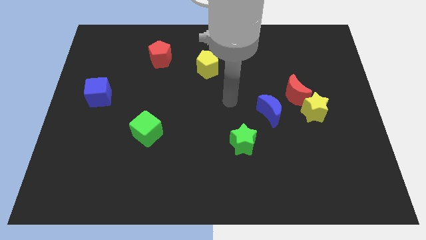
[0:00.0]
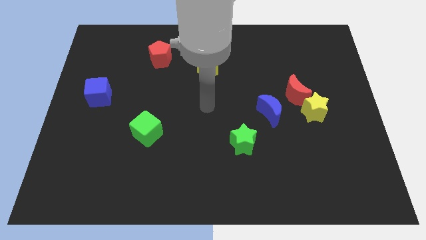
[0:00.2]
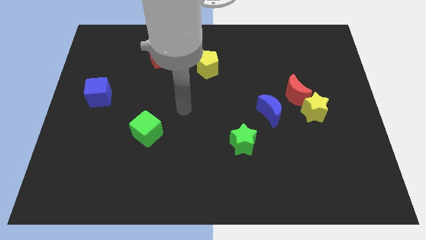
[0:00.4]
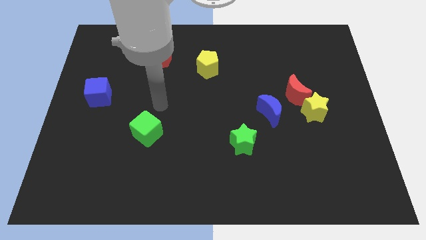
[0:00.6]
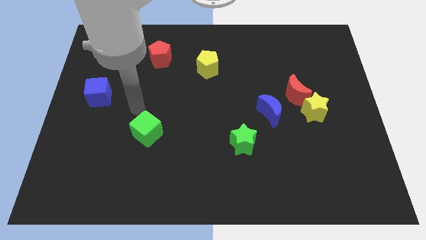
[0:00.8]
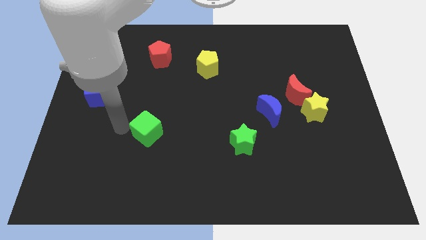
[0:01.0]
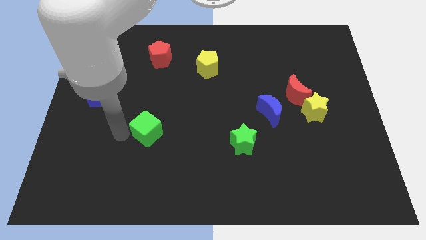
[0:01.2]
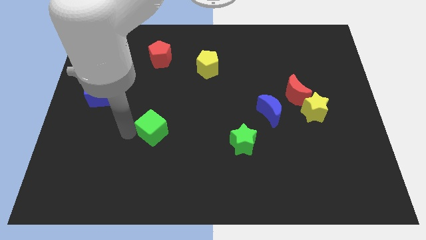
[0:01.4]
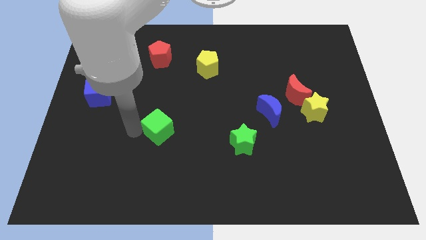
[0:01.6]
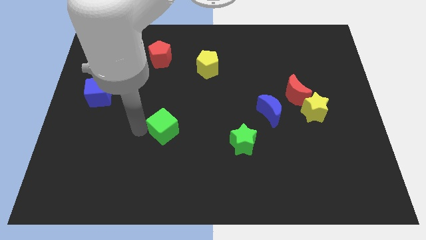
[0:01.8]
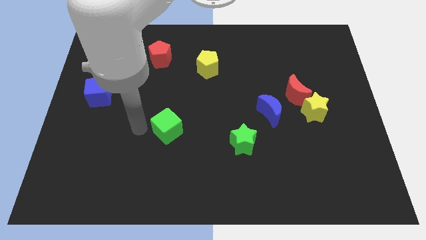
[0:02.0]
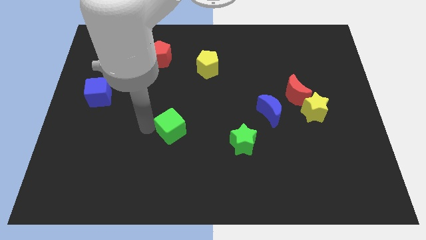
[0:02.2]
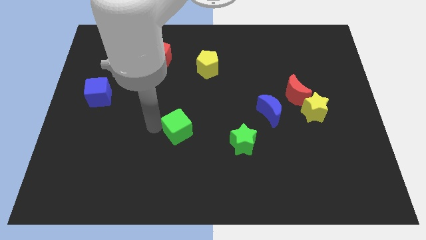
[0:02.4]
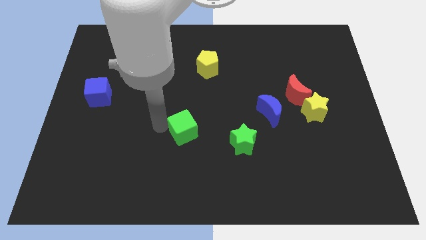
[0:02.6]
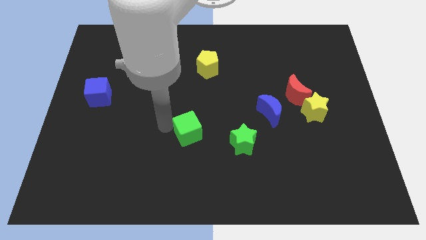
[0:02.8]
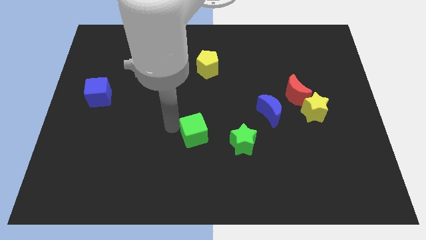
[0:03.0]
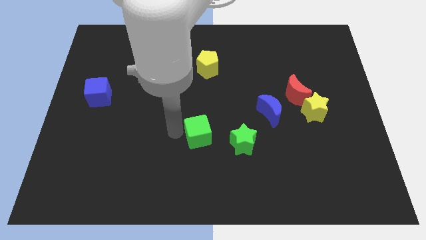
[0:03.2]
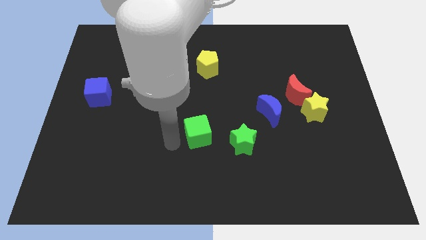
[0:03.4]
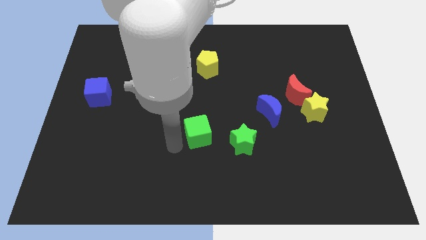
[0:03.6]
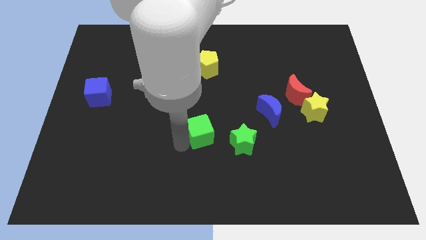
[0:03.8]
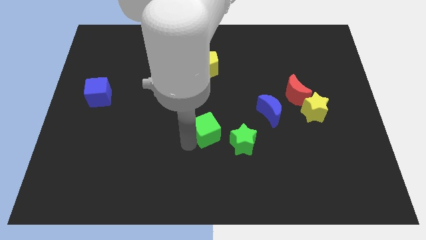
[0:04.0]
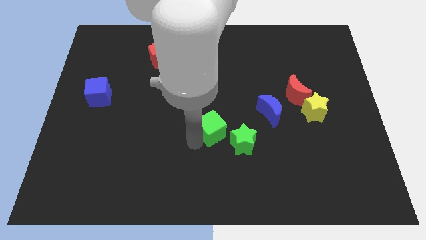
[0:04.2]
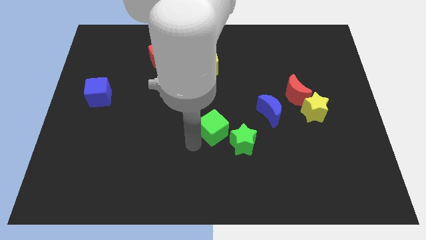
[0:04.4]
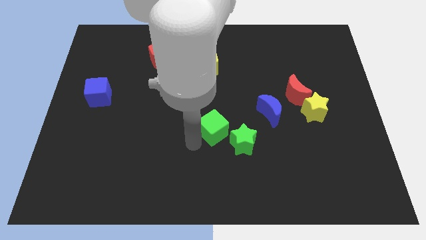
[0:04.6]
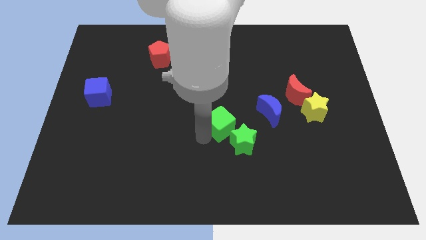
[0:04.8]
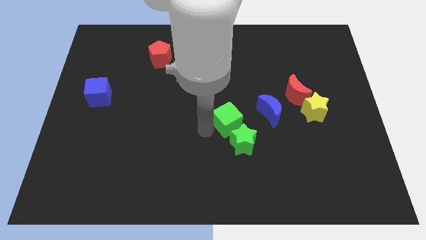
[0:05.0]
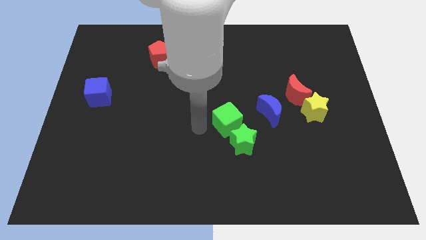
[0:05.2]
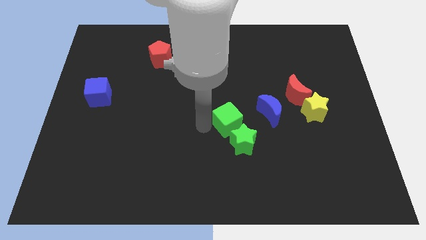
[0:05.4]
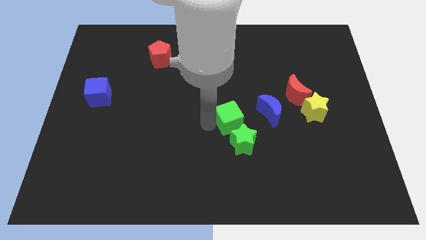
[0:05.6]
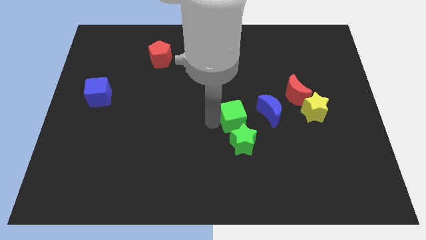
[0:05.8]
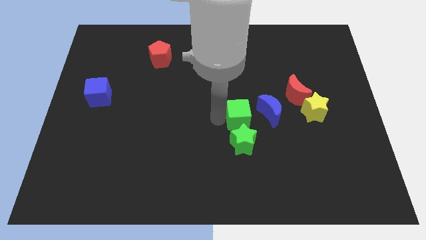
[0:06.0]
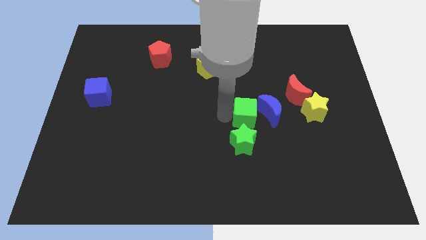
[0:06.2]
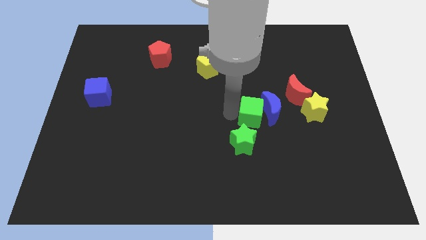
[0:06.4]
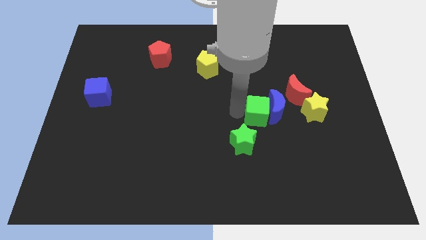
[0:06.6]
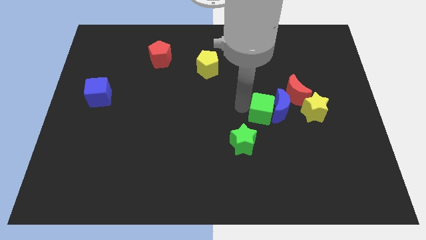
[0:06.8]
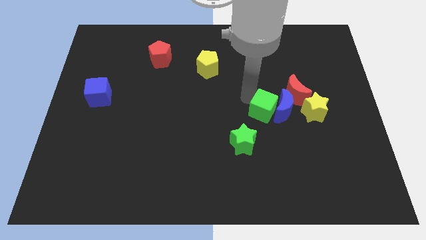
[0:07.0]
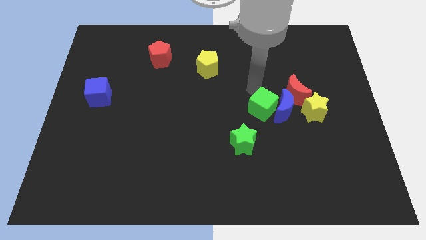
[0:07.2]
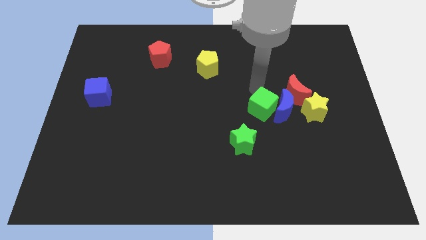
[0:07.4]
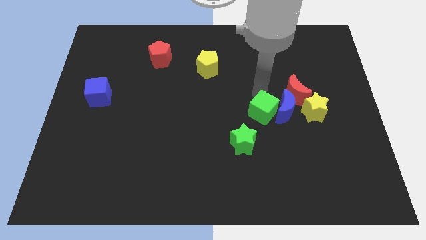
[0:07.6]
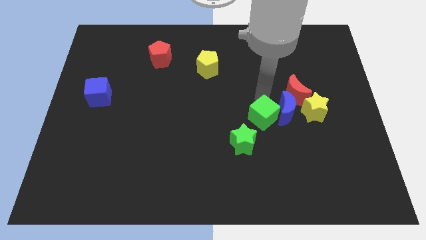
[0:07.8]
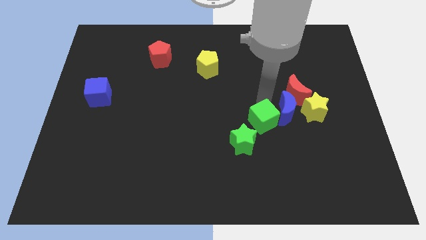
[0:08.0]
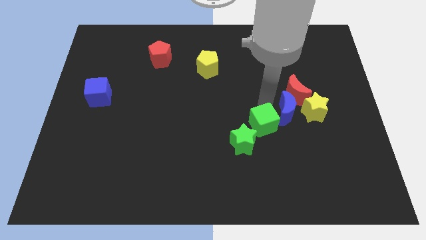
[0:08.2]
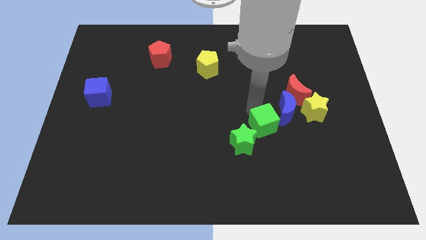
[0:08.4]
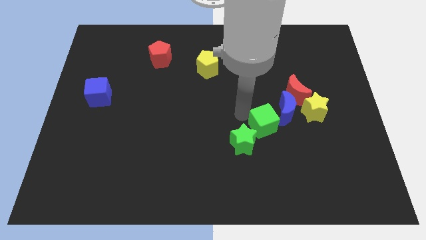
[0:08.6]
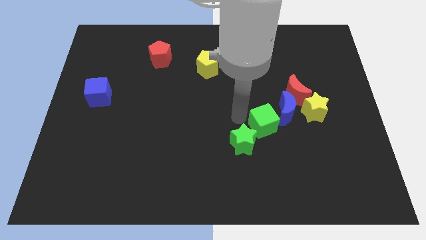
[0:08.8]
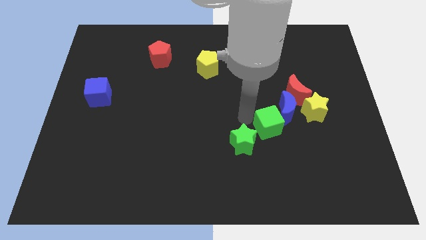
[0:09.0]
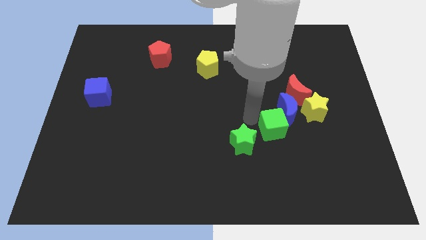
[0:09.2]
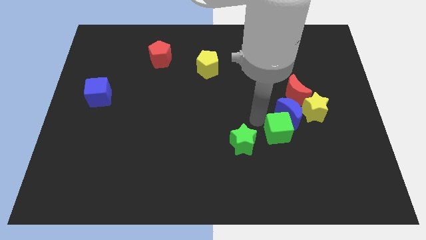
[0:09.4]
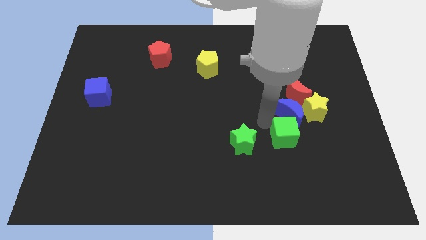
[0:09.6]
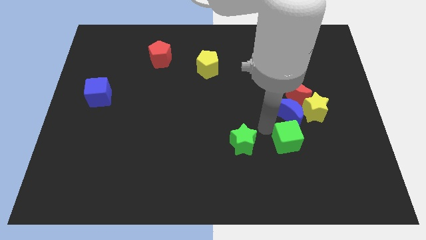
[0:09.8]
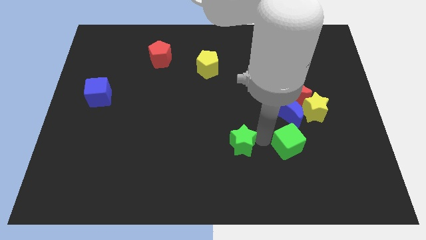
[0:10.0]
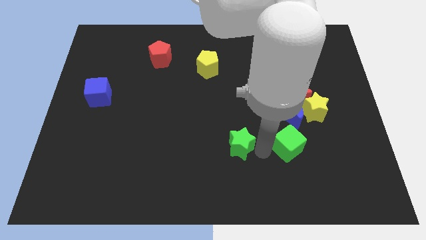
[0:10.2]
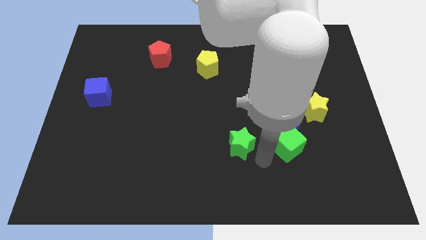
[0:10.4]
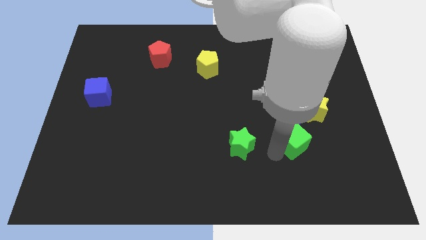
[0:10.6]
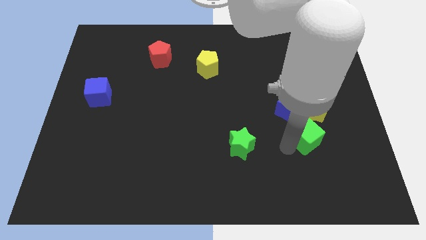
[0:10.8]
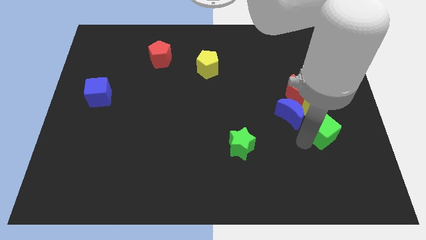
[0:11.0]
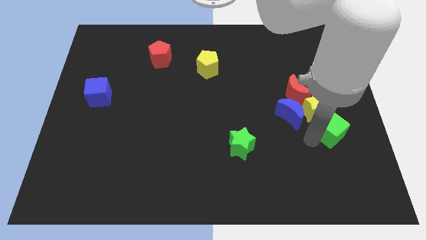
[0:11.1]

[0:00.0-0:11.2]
move the green cube just right of the blue moon
